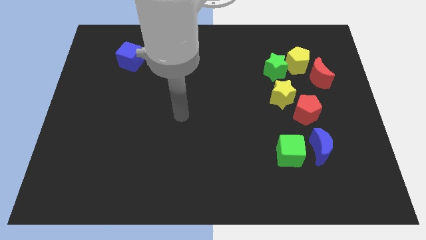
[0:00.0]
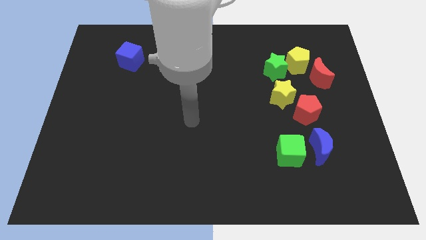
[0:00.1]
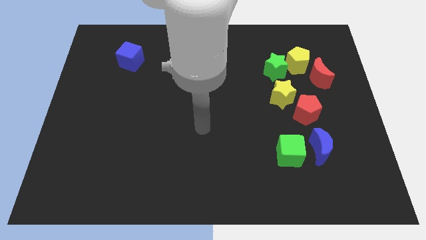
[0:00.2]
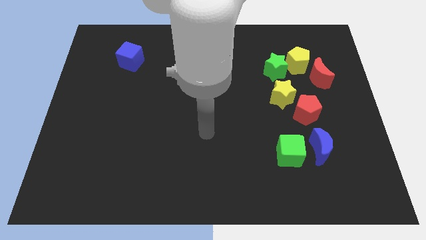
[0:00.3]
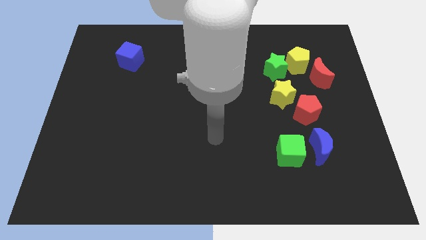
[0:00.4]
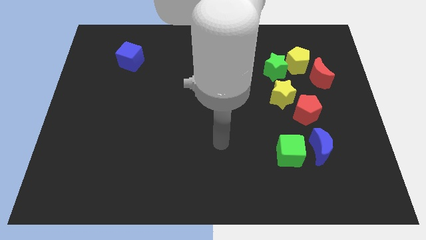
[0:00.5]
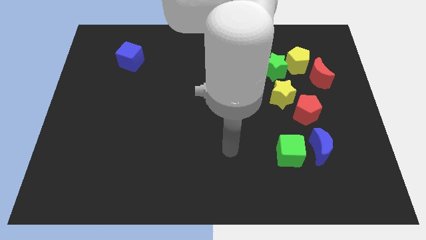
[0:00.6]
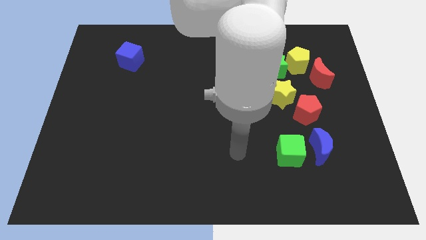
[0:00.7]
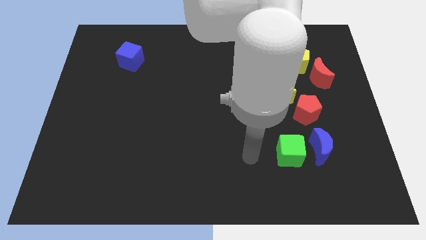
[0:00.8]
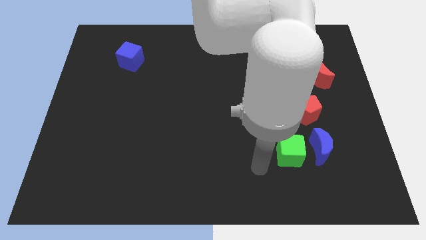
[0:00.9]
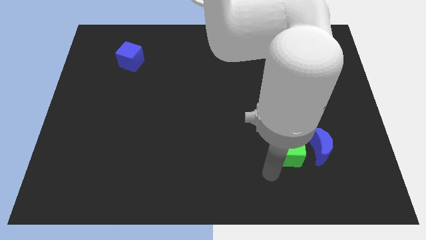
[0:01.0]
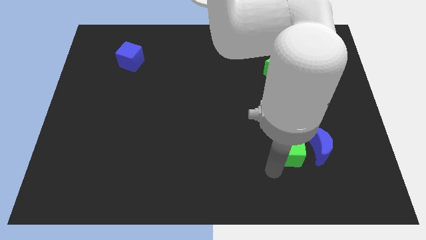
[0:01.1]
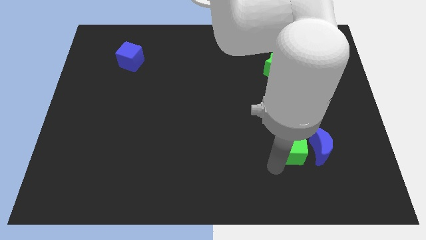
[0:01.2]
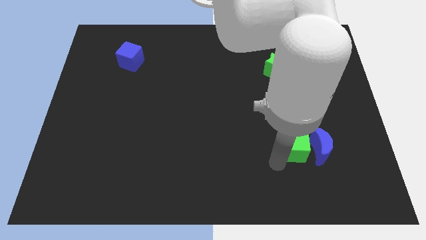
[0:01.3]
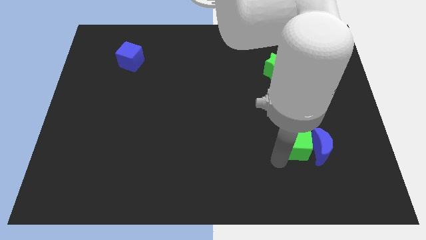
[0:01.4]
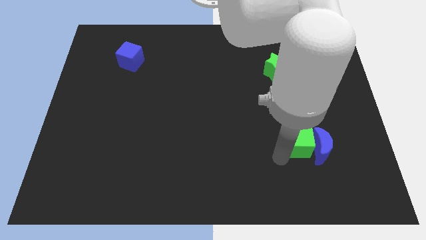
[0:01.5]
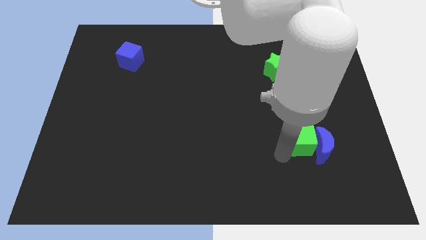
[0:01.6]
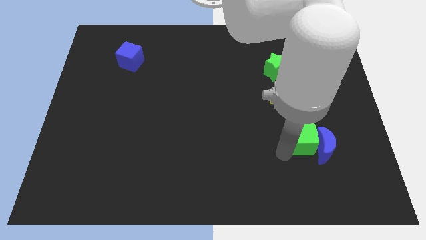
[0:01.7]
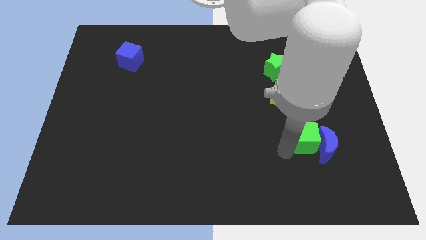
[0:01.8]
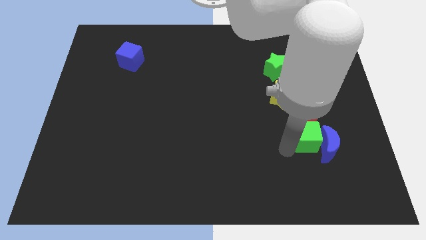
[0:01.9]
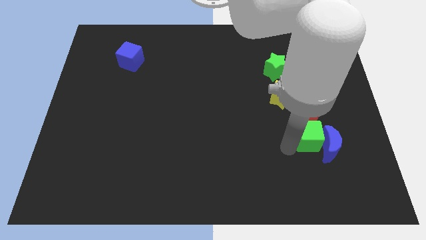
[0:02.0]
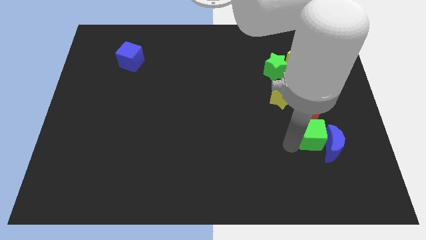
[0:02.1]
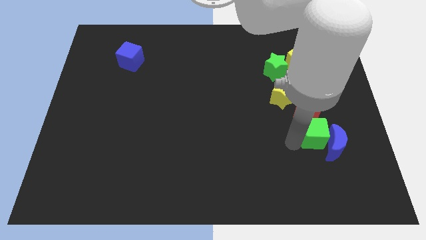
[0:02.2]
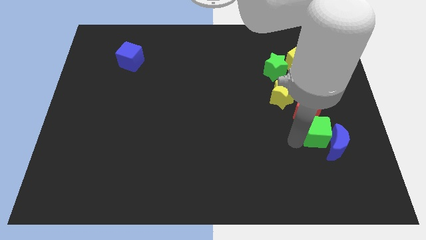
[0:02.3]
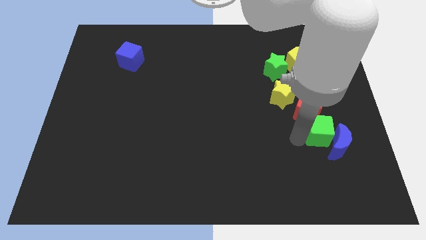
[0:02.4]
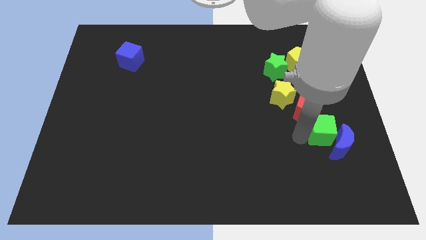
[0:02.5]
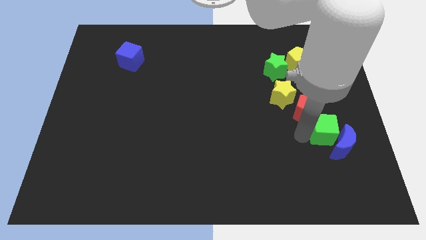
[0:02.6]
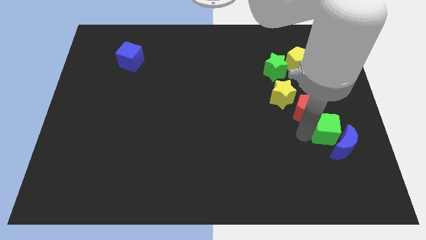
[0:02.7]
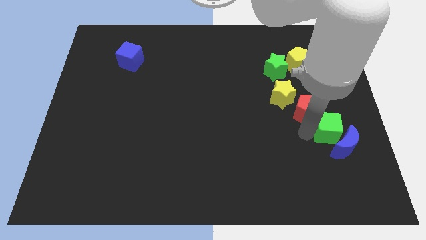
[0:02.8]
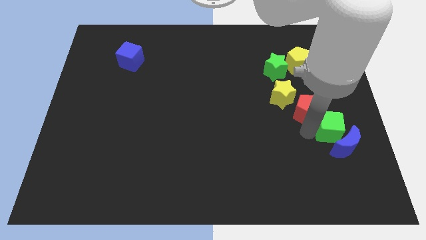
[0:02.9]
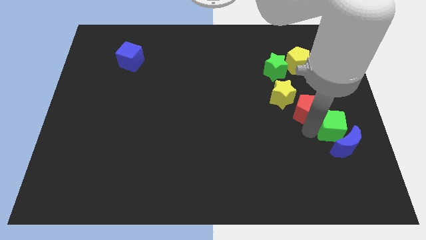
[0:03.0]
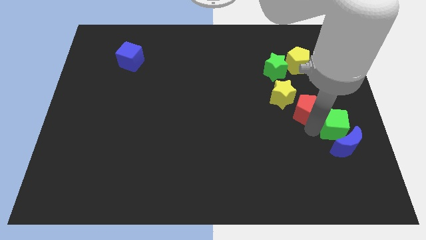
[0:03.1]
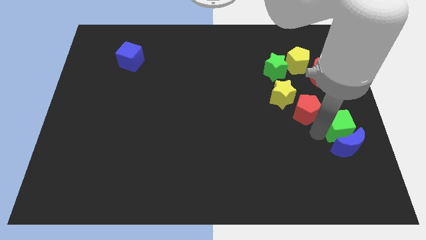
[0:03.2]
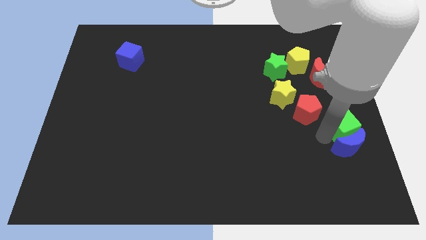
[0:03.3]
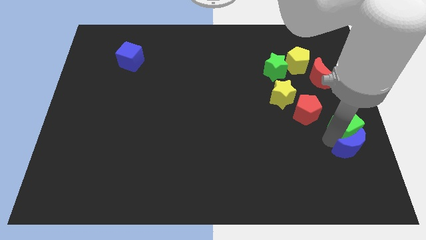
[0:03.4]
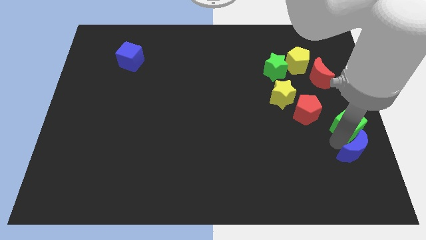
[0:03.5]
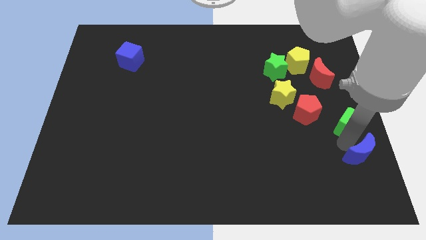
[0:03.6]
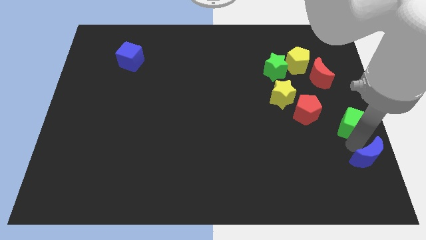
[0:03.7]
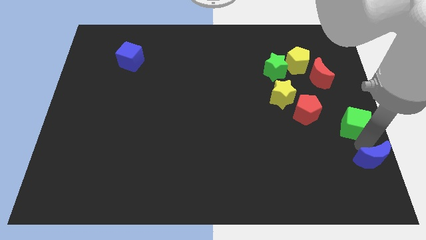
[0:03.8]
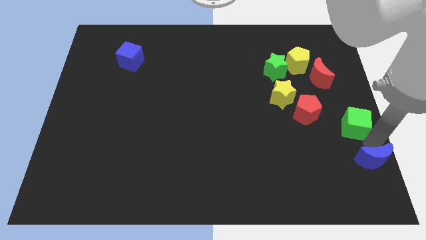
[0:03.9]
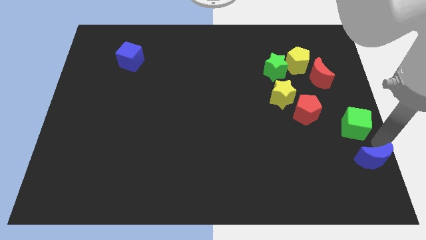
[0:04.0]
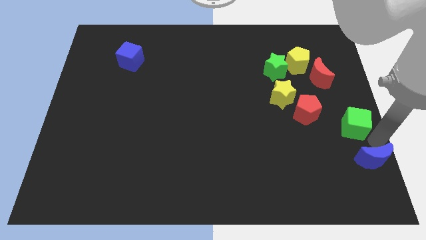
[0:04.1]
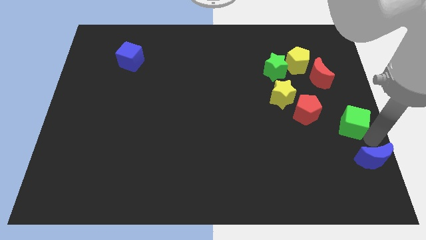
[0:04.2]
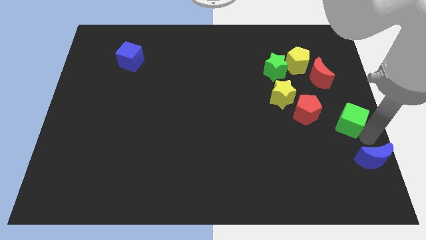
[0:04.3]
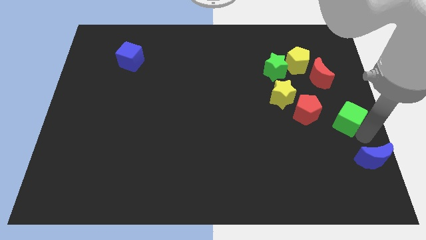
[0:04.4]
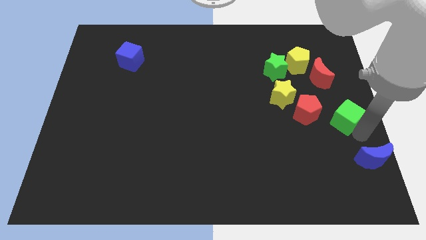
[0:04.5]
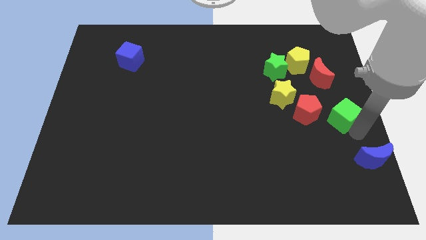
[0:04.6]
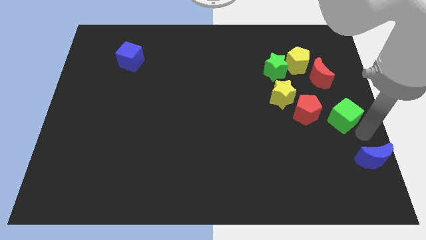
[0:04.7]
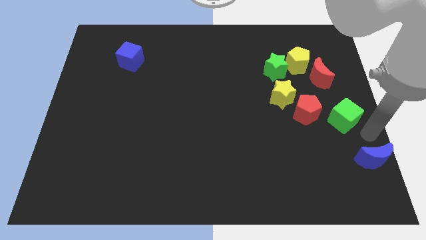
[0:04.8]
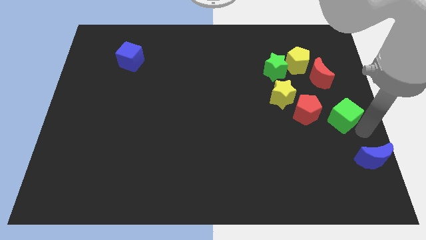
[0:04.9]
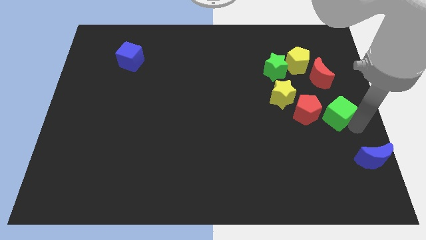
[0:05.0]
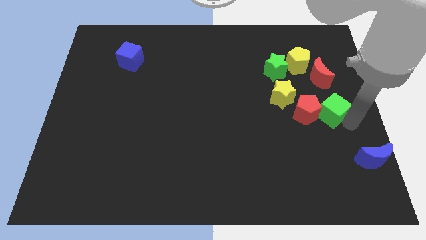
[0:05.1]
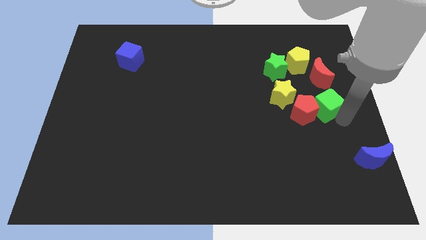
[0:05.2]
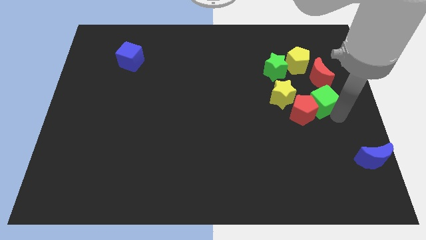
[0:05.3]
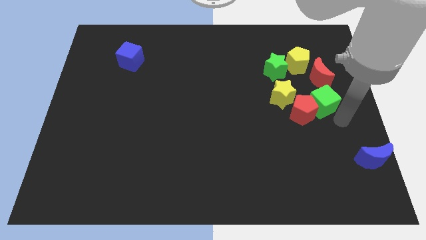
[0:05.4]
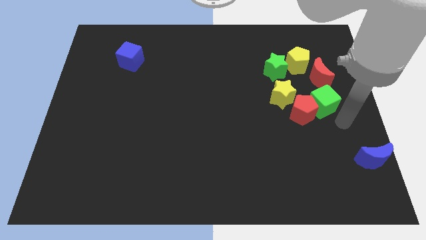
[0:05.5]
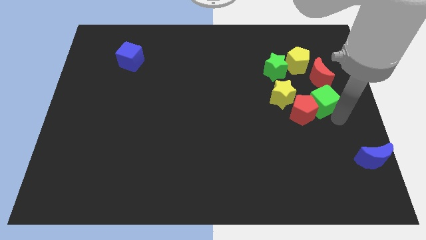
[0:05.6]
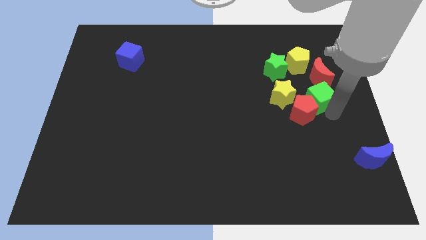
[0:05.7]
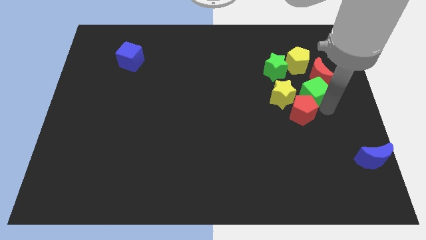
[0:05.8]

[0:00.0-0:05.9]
push the green cube to the bottom right of the green star

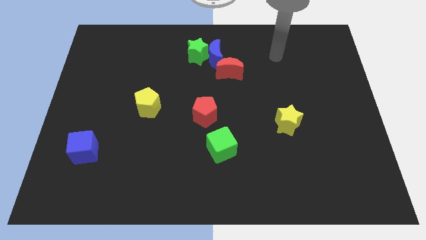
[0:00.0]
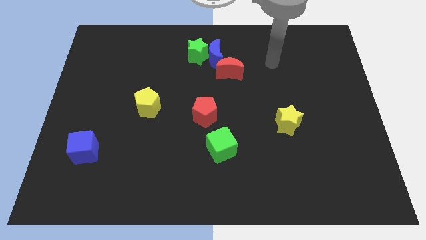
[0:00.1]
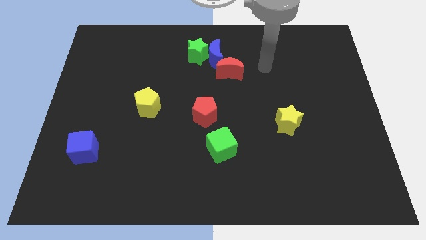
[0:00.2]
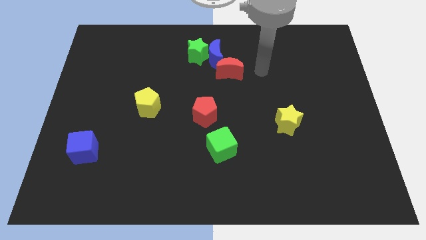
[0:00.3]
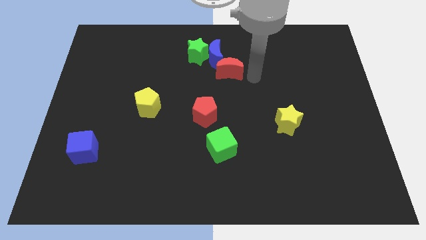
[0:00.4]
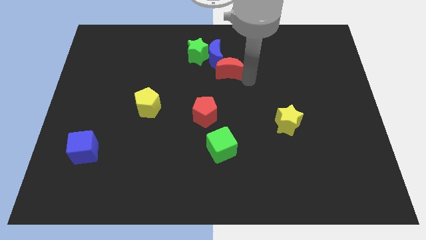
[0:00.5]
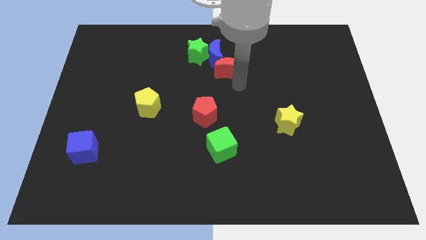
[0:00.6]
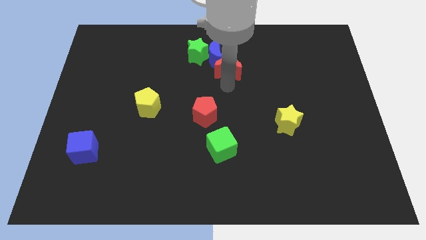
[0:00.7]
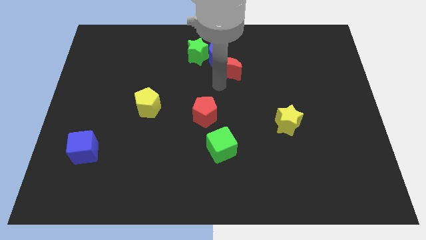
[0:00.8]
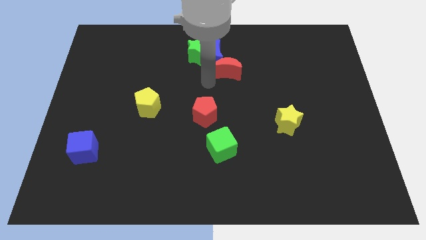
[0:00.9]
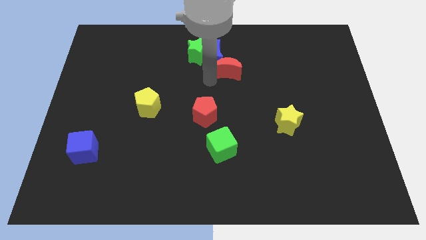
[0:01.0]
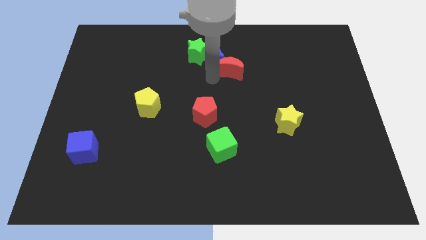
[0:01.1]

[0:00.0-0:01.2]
move the red moon to the right side of the blue moon
